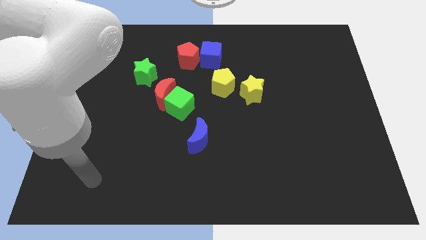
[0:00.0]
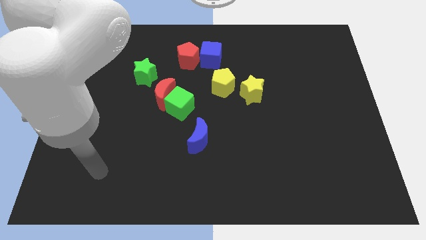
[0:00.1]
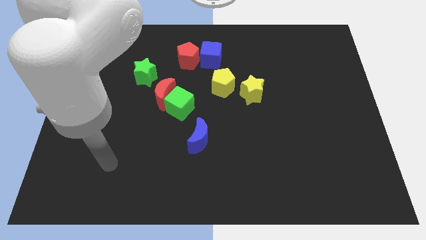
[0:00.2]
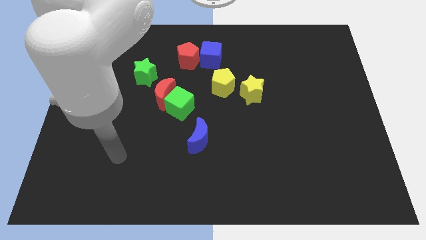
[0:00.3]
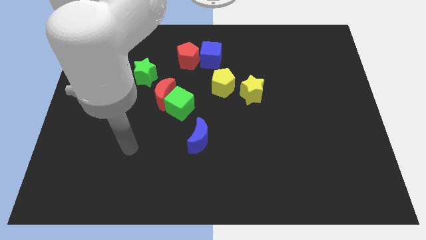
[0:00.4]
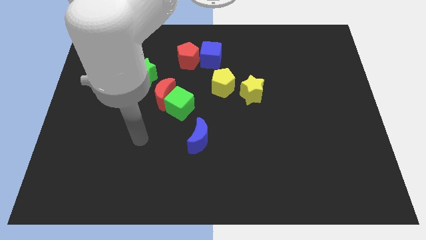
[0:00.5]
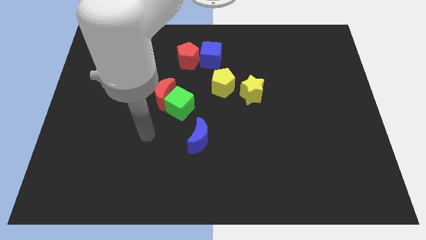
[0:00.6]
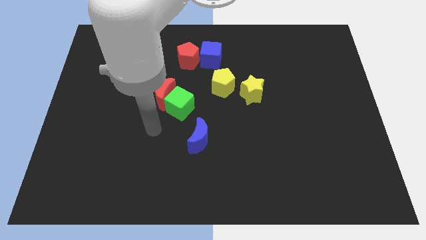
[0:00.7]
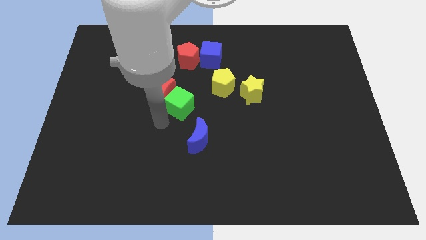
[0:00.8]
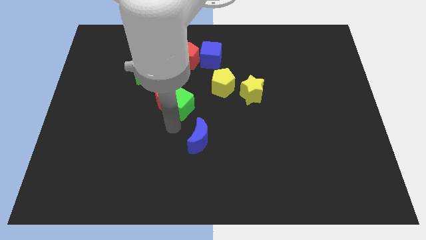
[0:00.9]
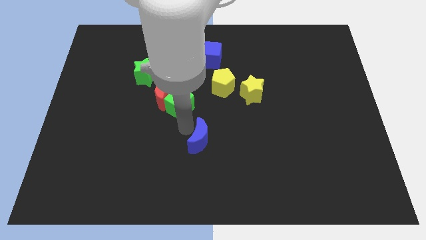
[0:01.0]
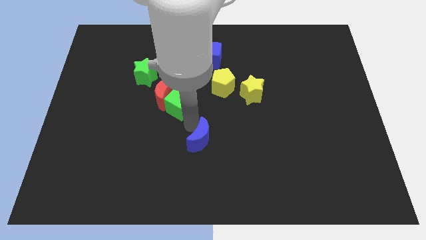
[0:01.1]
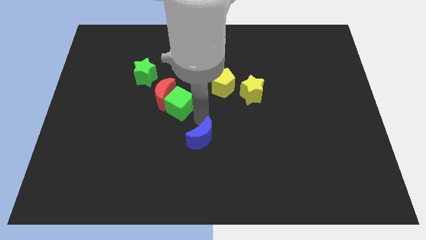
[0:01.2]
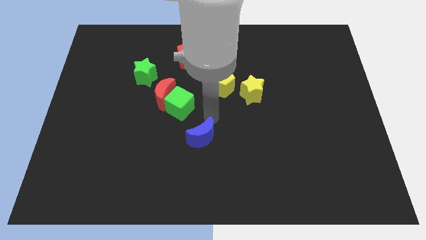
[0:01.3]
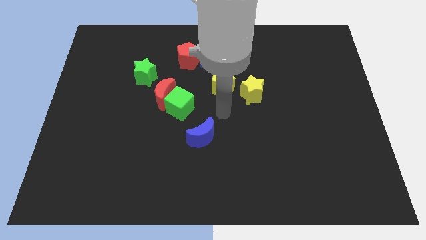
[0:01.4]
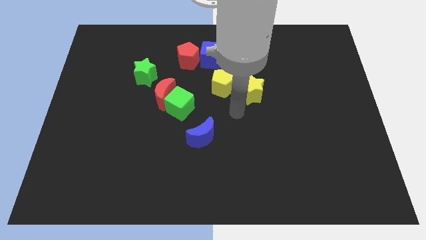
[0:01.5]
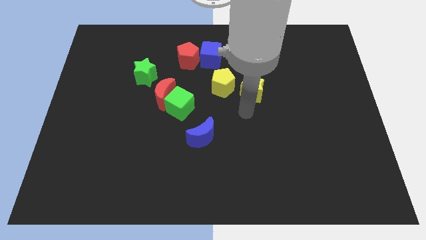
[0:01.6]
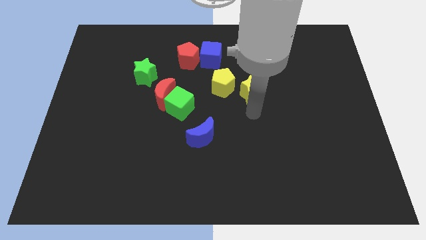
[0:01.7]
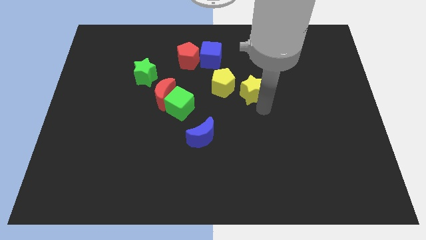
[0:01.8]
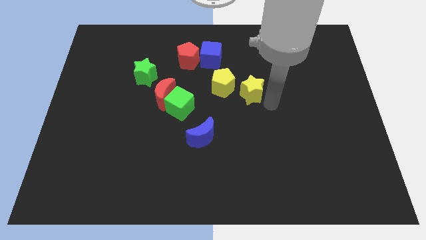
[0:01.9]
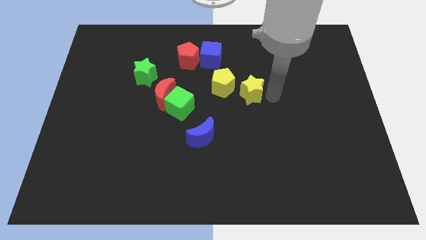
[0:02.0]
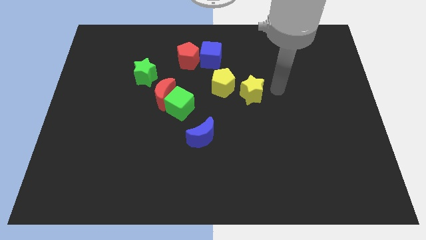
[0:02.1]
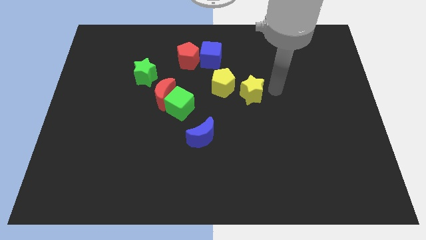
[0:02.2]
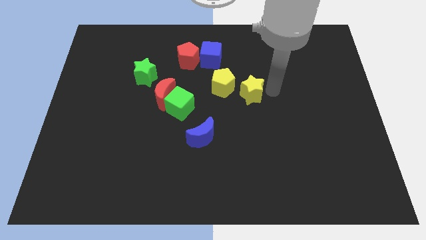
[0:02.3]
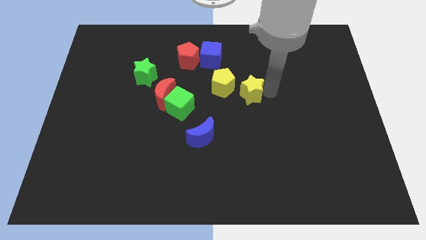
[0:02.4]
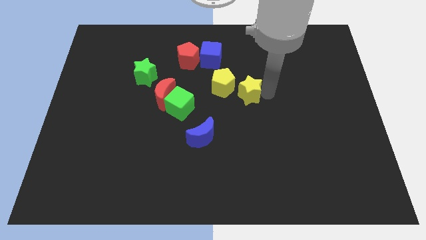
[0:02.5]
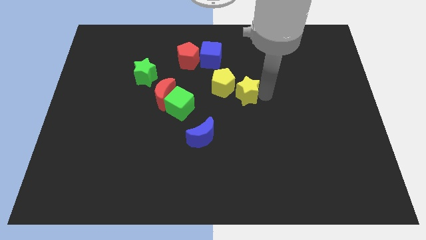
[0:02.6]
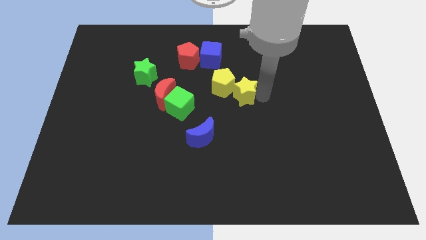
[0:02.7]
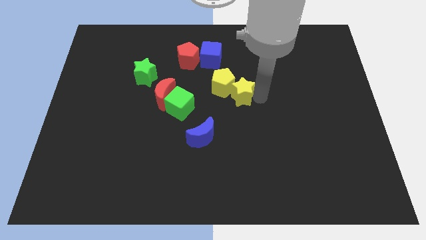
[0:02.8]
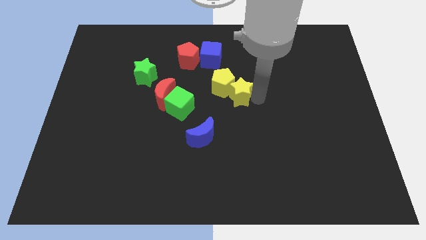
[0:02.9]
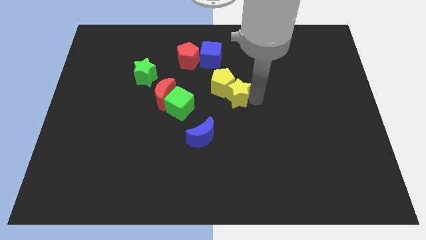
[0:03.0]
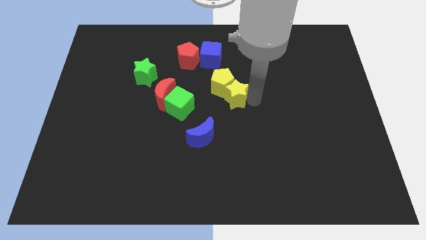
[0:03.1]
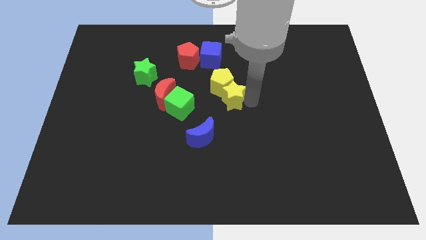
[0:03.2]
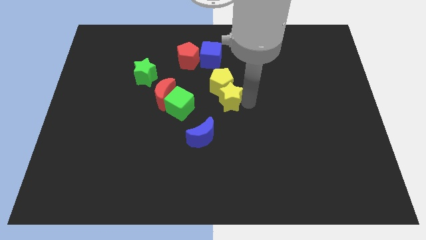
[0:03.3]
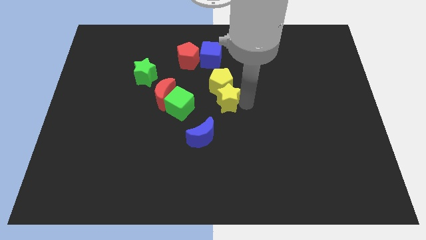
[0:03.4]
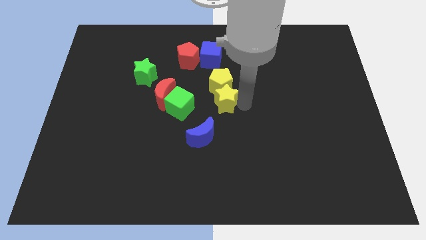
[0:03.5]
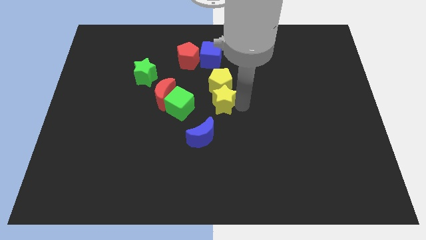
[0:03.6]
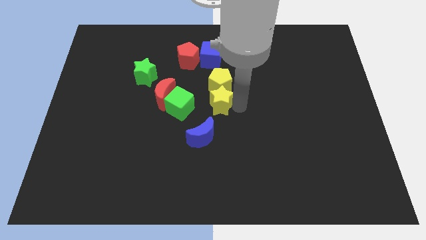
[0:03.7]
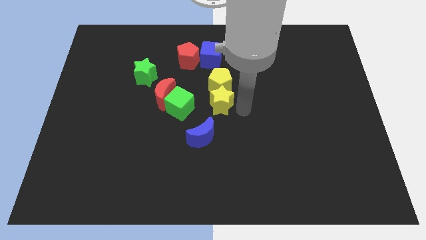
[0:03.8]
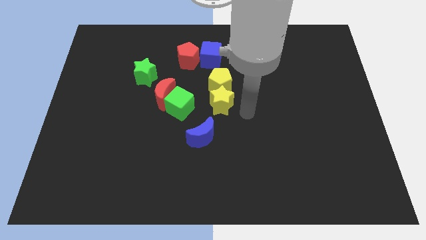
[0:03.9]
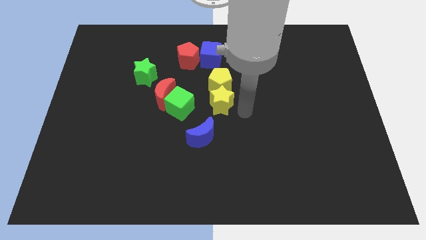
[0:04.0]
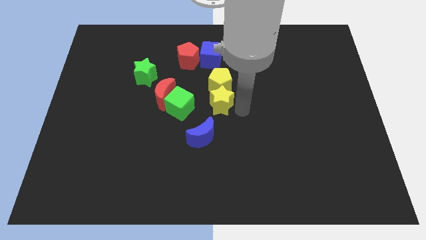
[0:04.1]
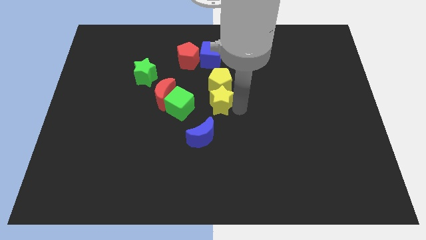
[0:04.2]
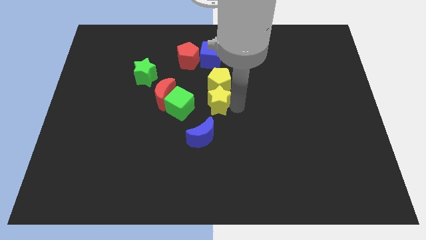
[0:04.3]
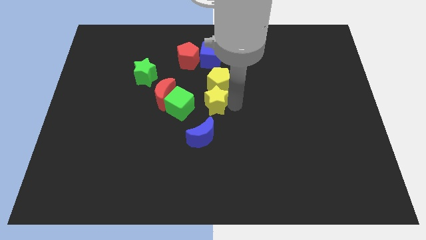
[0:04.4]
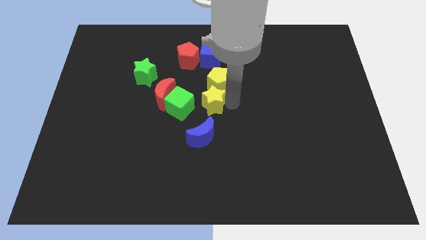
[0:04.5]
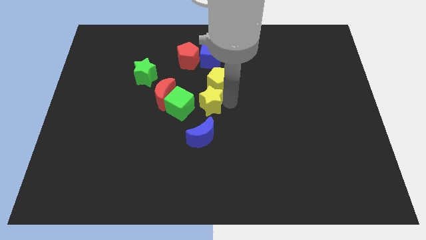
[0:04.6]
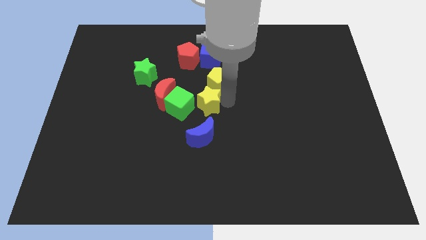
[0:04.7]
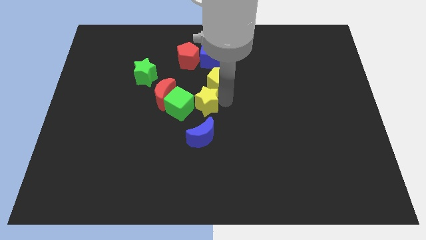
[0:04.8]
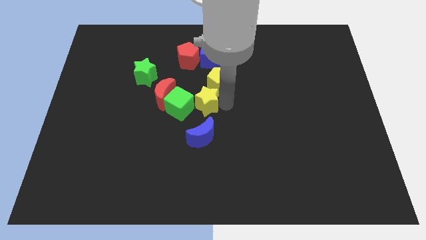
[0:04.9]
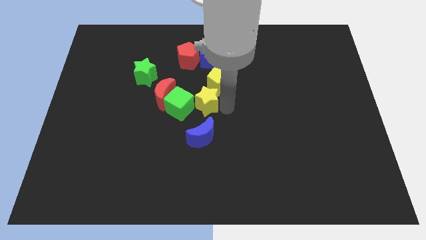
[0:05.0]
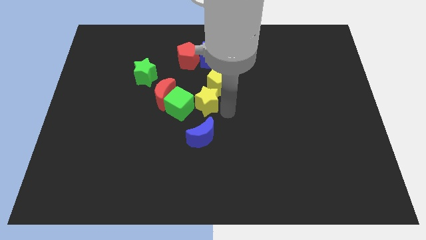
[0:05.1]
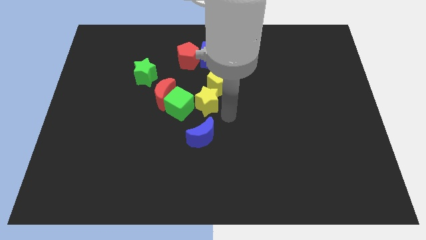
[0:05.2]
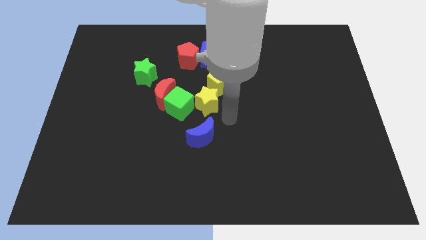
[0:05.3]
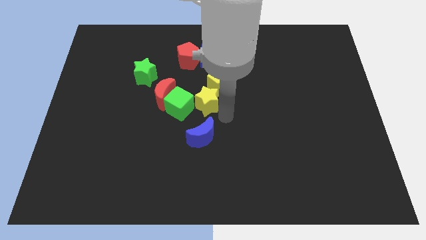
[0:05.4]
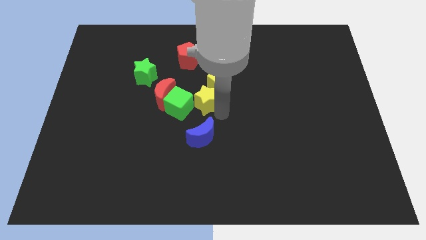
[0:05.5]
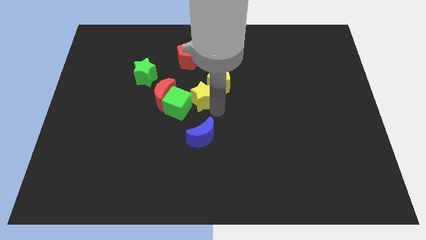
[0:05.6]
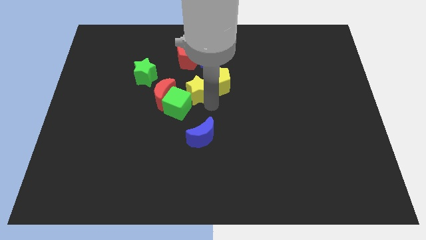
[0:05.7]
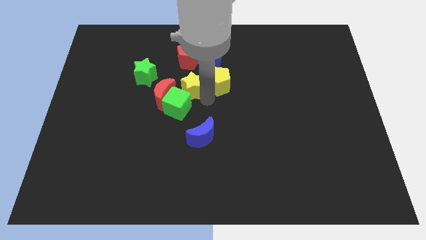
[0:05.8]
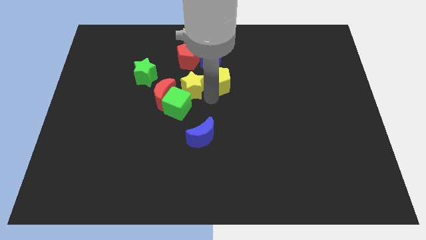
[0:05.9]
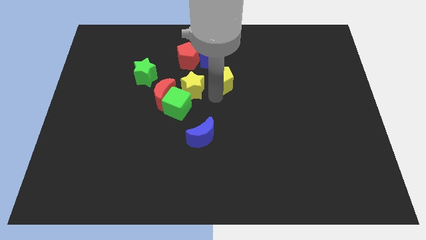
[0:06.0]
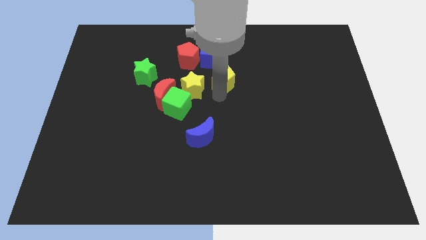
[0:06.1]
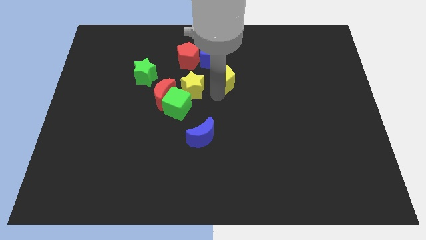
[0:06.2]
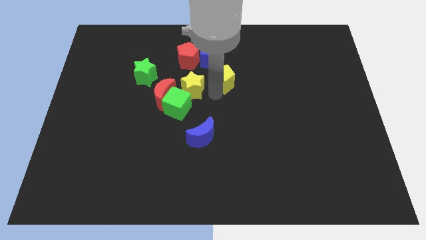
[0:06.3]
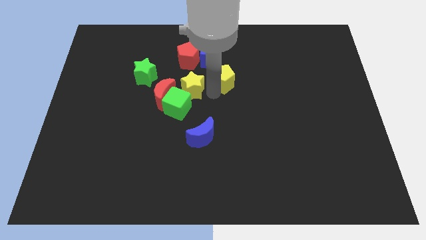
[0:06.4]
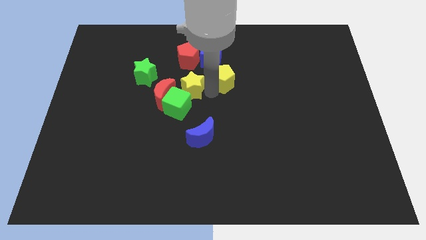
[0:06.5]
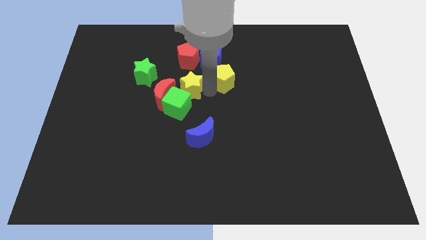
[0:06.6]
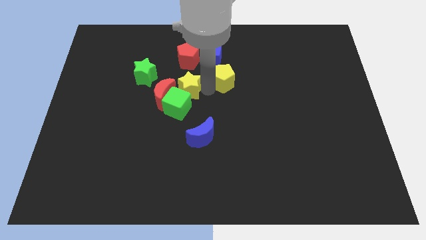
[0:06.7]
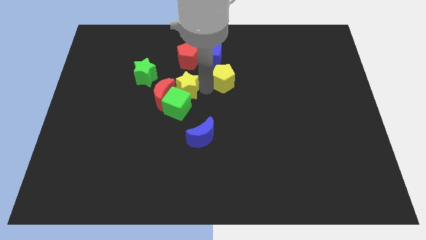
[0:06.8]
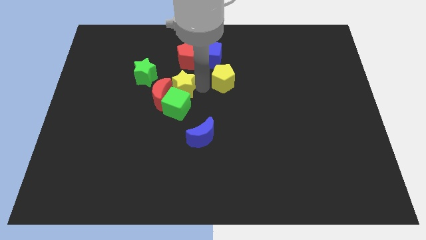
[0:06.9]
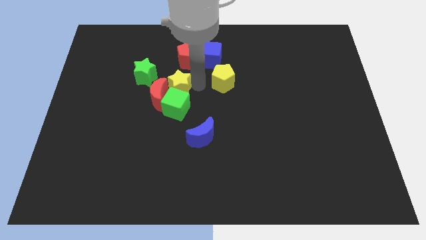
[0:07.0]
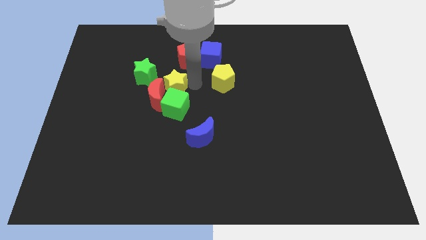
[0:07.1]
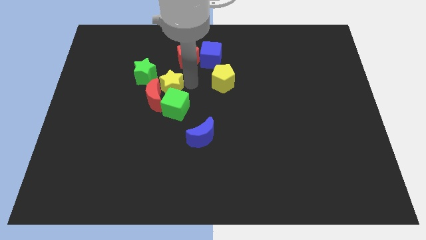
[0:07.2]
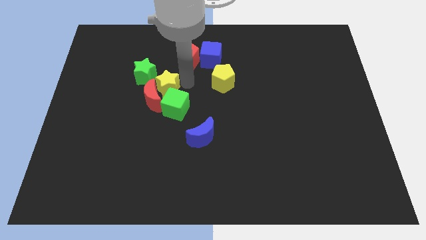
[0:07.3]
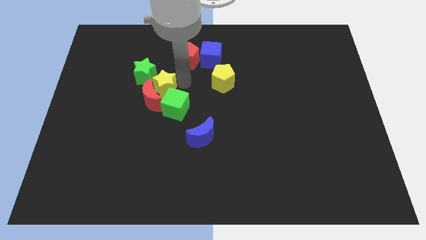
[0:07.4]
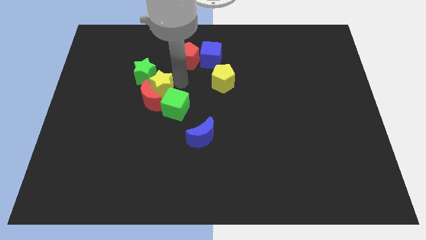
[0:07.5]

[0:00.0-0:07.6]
move the yellow star next to the green star
